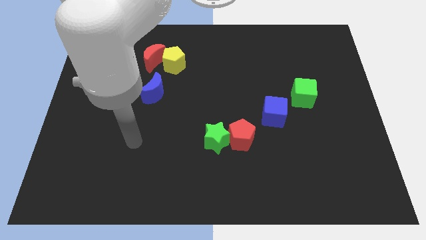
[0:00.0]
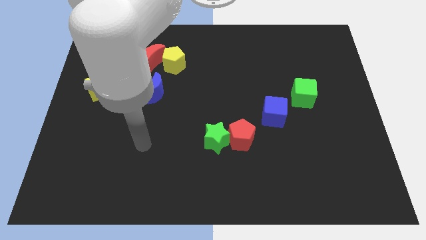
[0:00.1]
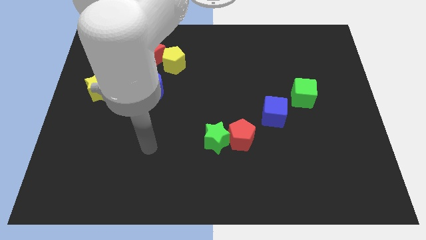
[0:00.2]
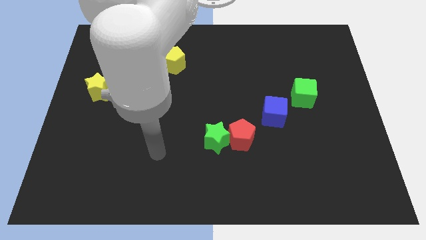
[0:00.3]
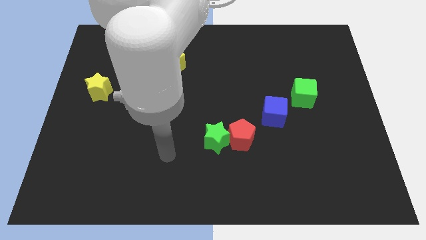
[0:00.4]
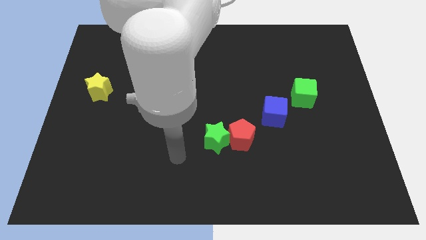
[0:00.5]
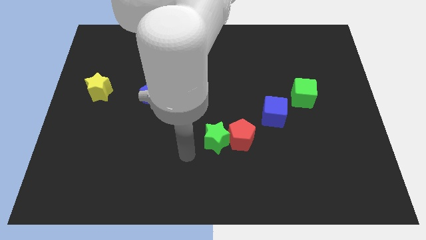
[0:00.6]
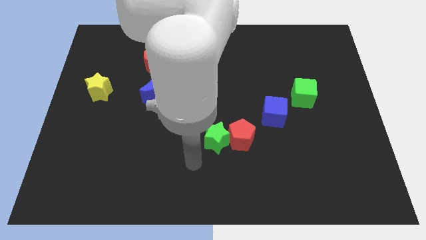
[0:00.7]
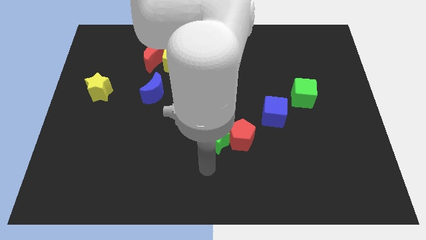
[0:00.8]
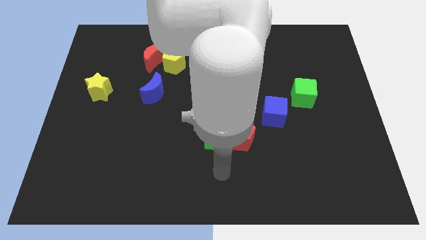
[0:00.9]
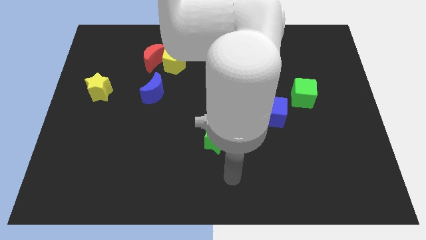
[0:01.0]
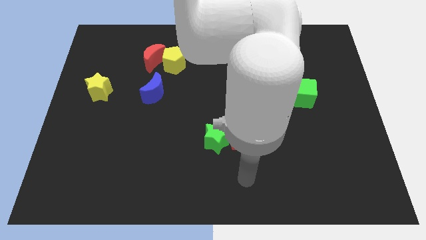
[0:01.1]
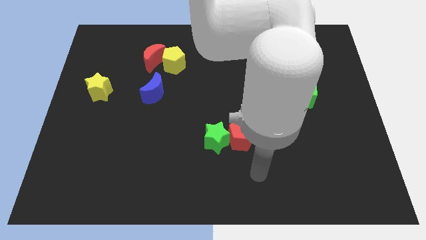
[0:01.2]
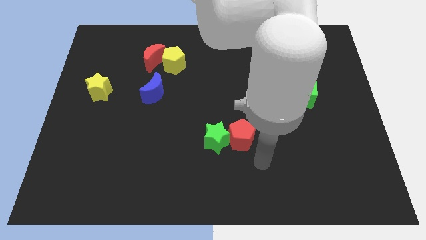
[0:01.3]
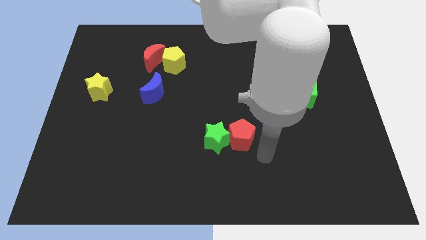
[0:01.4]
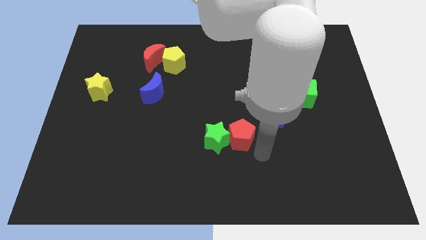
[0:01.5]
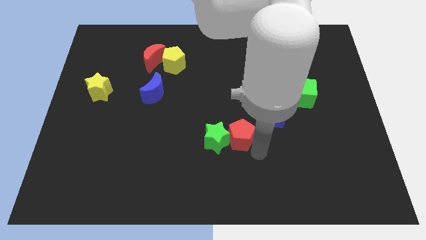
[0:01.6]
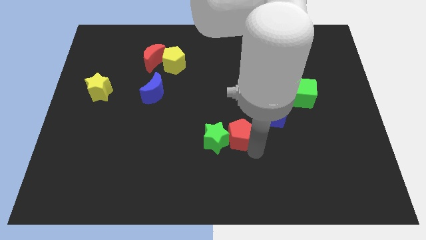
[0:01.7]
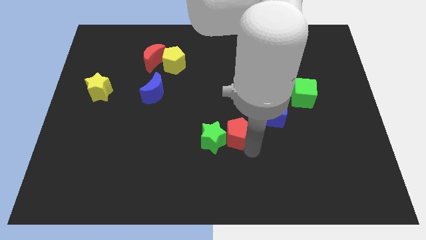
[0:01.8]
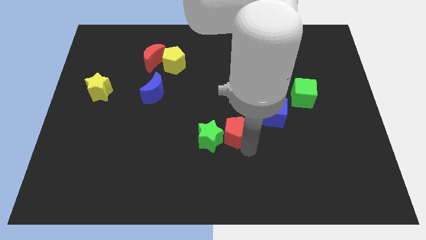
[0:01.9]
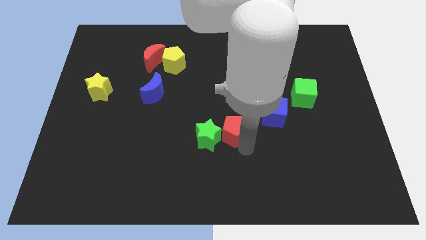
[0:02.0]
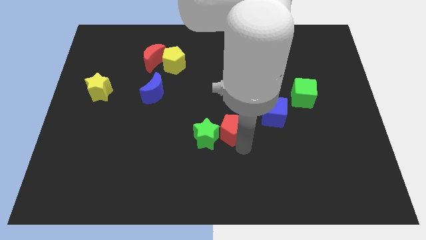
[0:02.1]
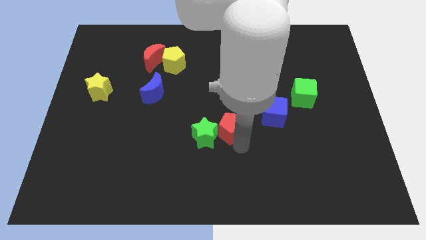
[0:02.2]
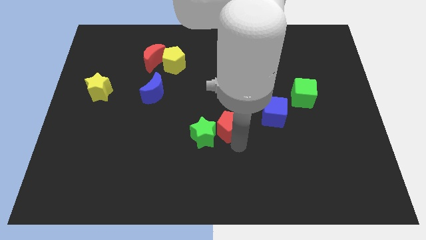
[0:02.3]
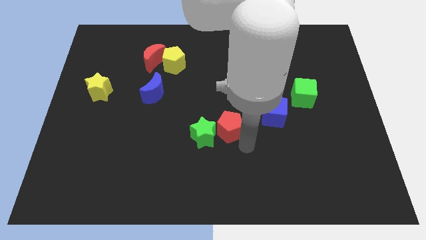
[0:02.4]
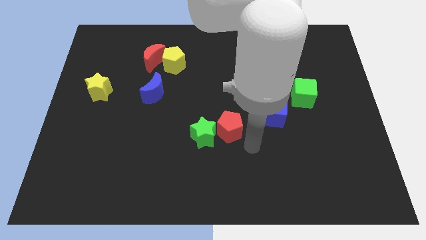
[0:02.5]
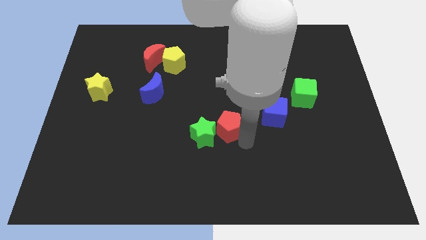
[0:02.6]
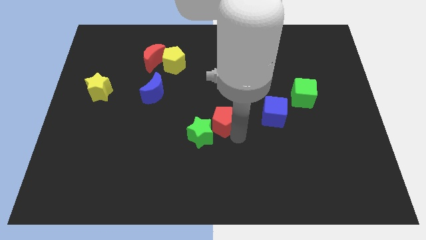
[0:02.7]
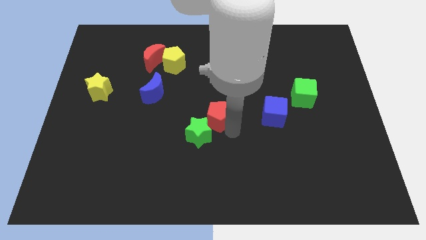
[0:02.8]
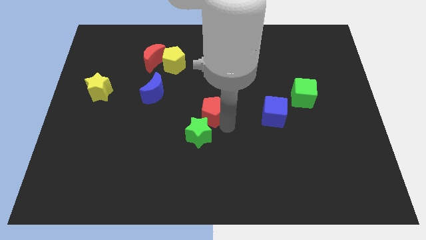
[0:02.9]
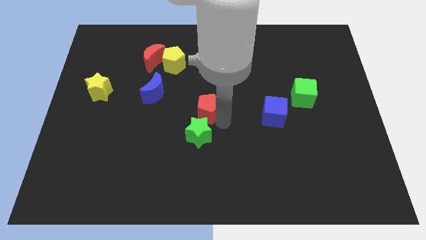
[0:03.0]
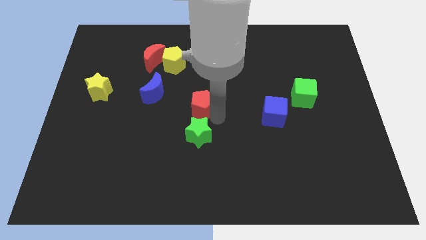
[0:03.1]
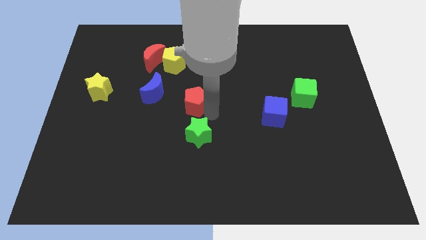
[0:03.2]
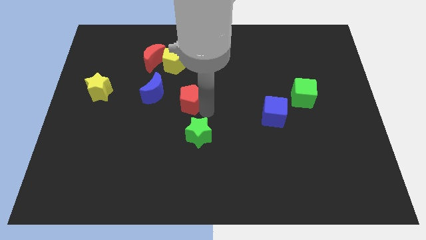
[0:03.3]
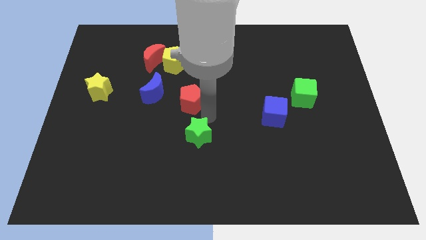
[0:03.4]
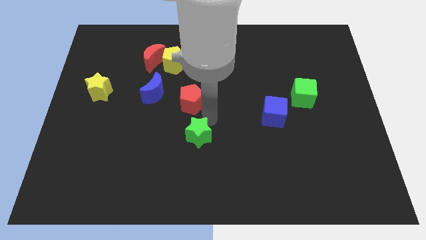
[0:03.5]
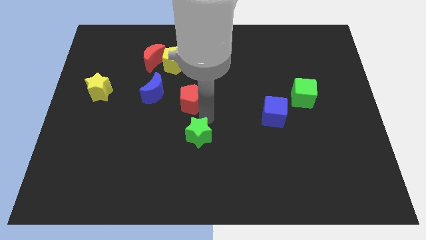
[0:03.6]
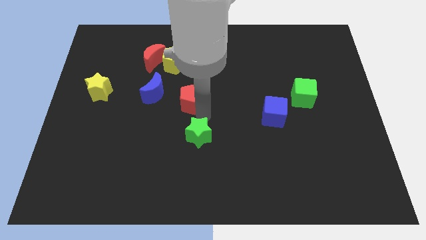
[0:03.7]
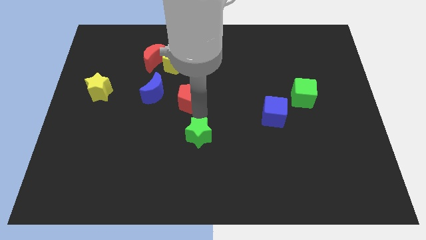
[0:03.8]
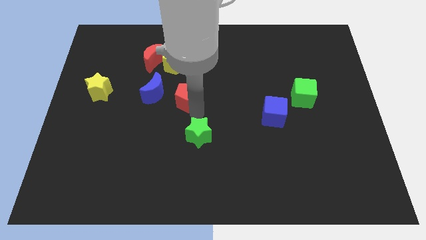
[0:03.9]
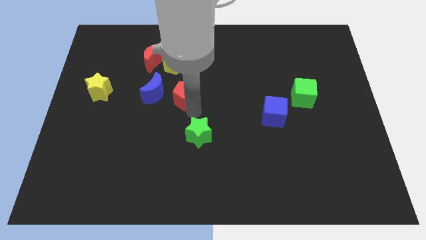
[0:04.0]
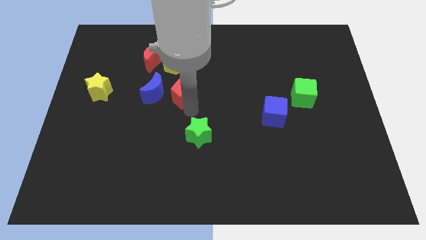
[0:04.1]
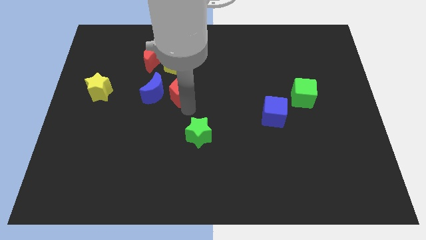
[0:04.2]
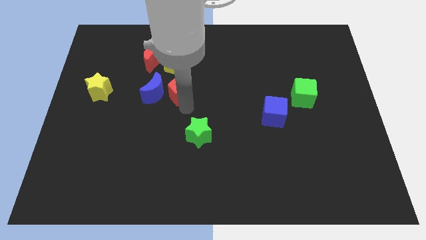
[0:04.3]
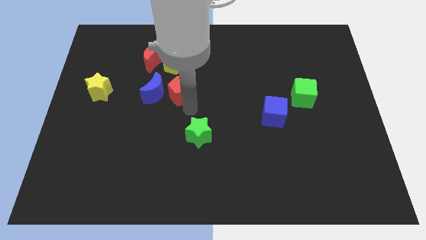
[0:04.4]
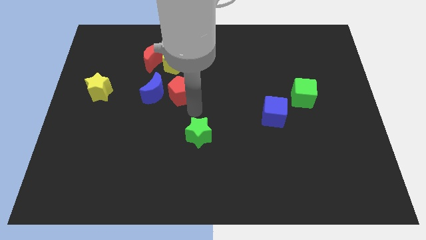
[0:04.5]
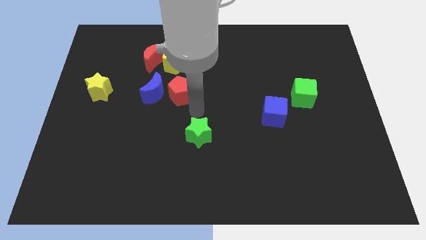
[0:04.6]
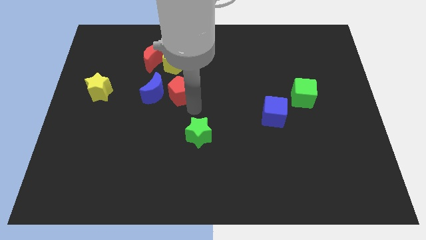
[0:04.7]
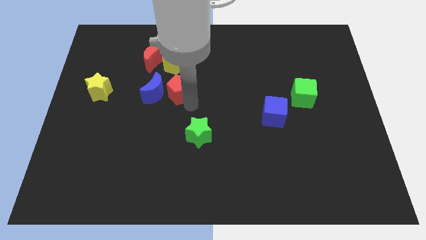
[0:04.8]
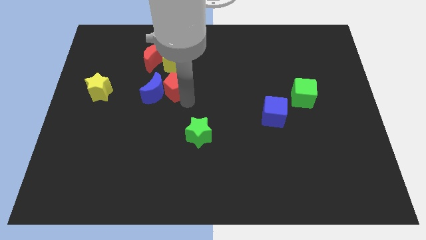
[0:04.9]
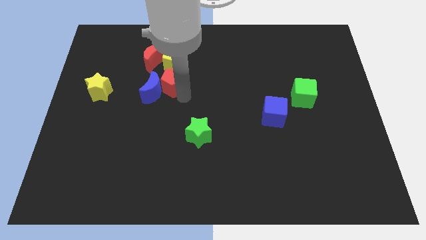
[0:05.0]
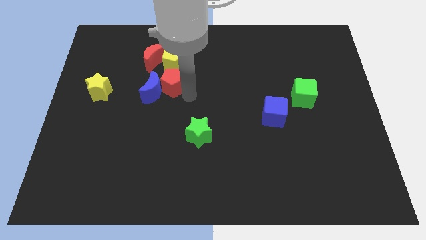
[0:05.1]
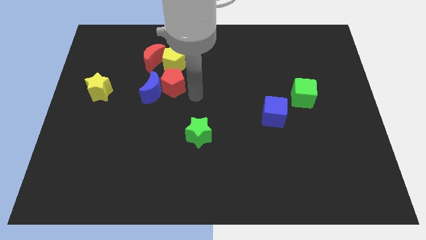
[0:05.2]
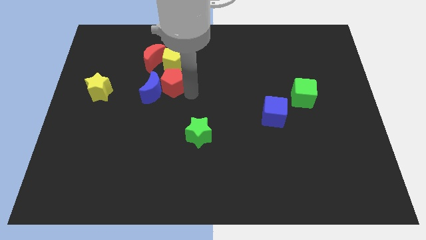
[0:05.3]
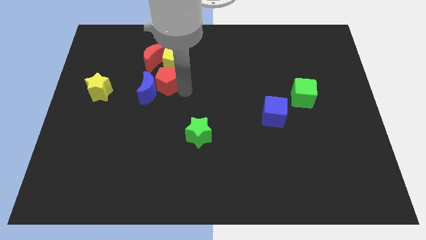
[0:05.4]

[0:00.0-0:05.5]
push the red pentagon to the bottom left of the yellow pentagon

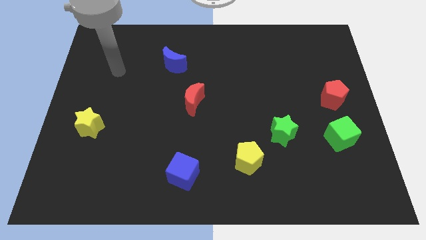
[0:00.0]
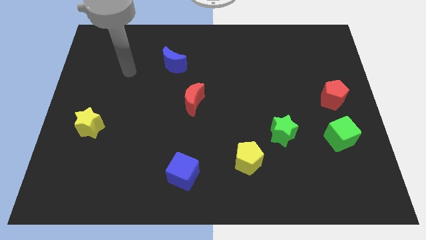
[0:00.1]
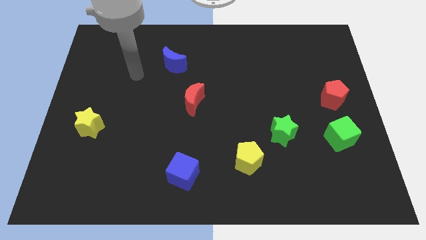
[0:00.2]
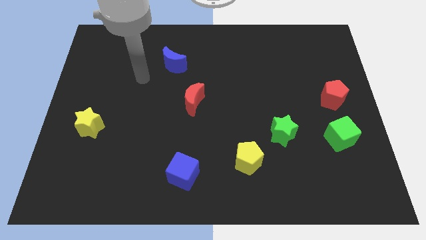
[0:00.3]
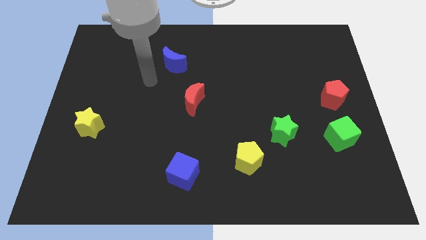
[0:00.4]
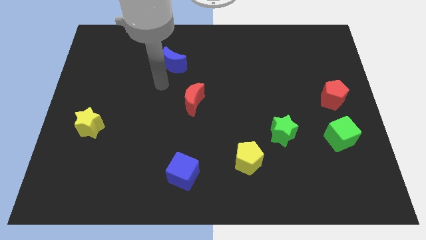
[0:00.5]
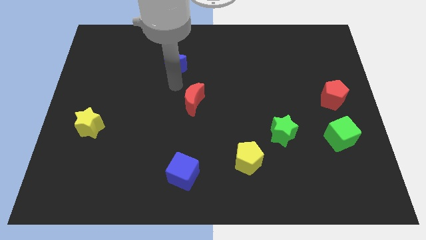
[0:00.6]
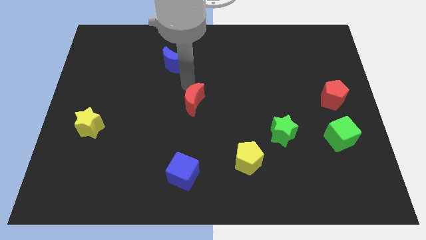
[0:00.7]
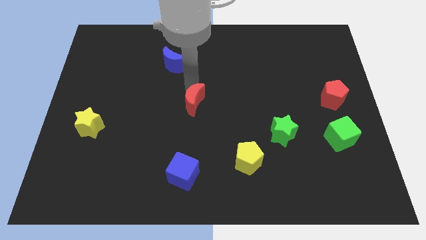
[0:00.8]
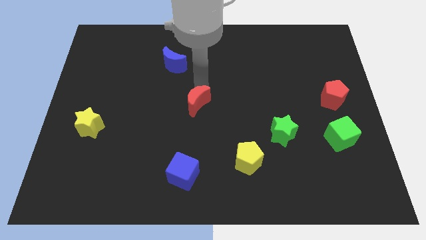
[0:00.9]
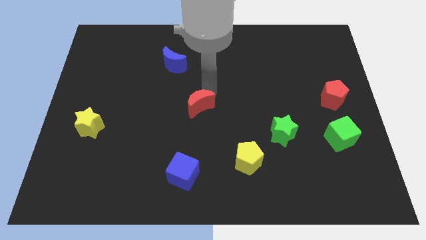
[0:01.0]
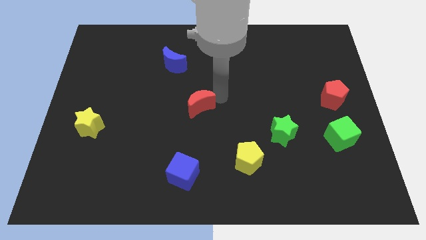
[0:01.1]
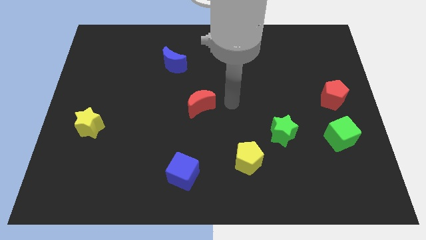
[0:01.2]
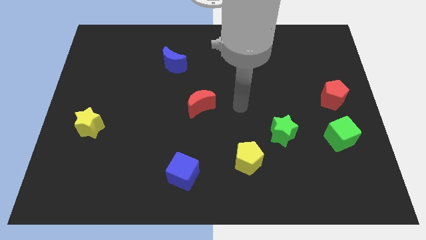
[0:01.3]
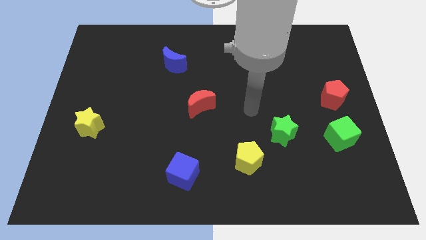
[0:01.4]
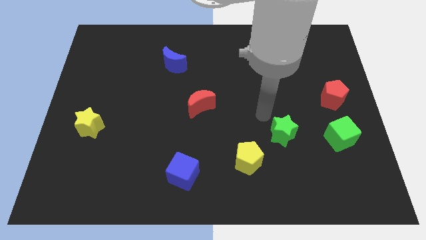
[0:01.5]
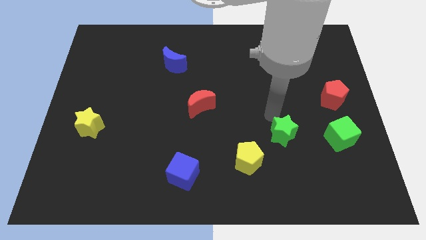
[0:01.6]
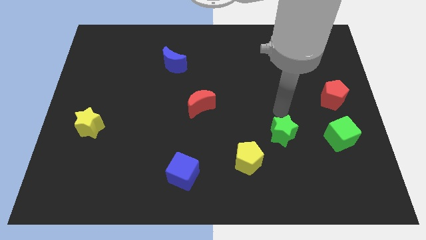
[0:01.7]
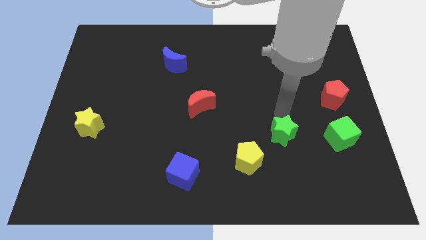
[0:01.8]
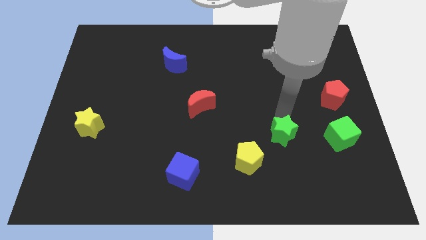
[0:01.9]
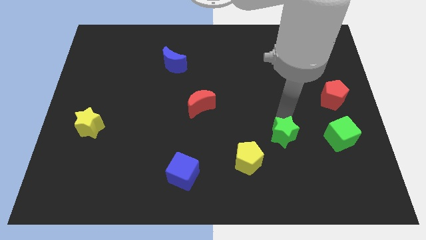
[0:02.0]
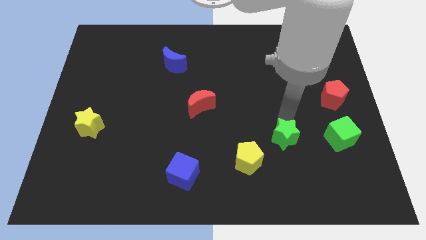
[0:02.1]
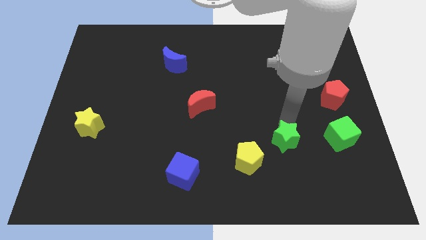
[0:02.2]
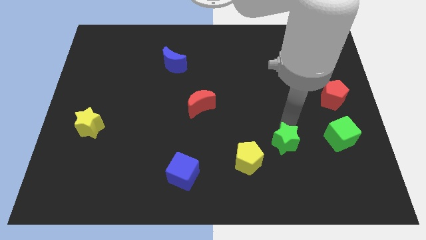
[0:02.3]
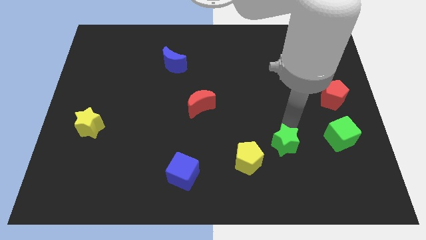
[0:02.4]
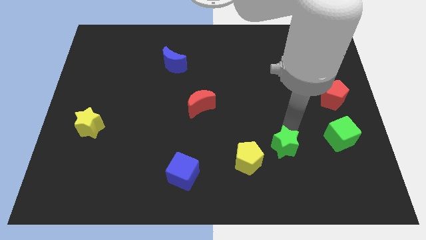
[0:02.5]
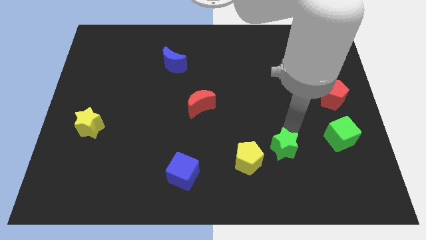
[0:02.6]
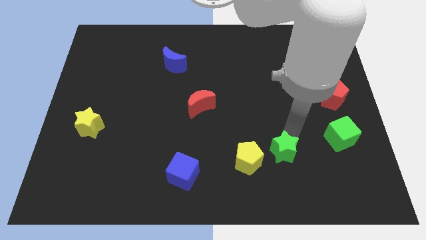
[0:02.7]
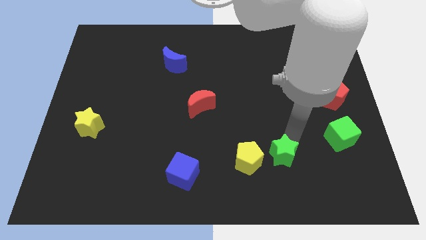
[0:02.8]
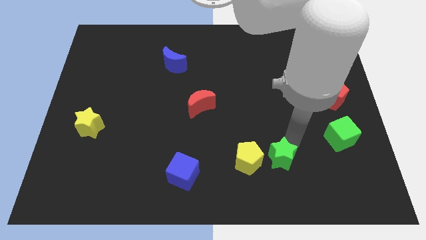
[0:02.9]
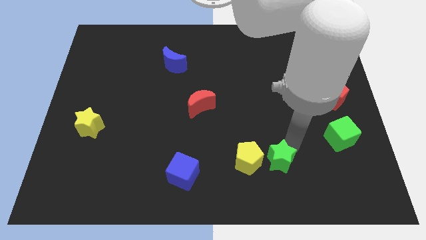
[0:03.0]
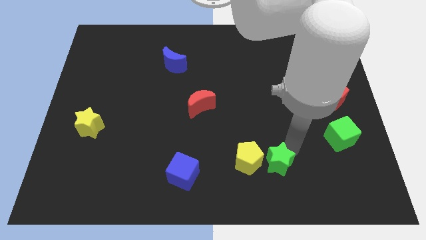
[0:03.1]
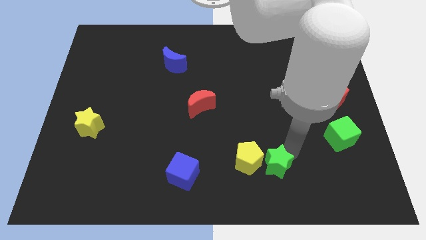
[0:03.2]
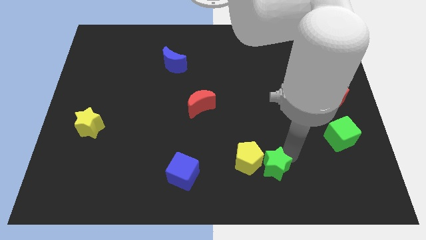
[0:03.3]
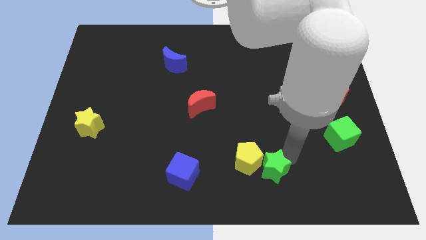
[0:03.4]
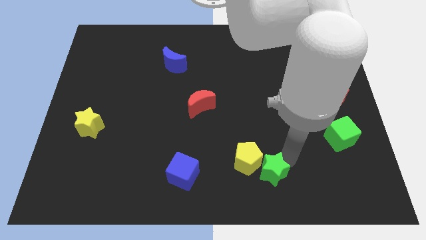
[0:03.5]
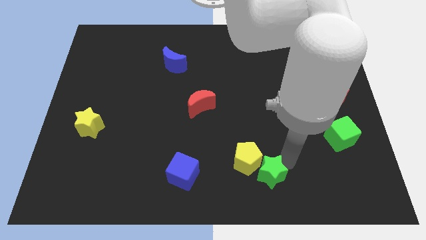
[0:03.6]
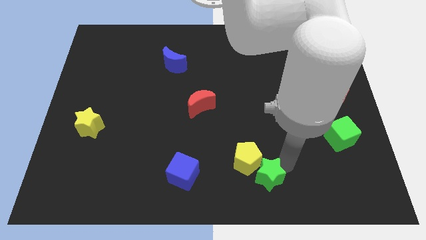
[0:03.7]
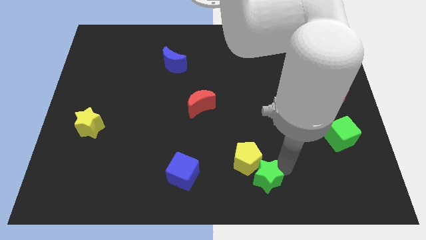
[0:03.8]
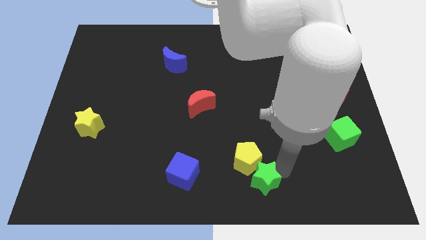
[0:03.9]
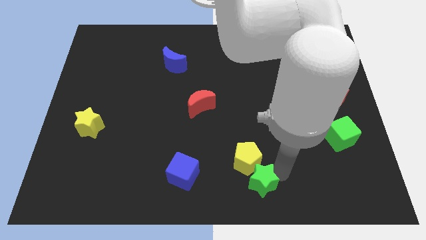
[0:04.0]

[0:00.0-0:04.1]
push the green star to the right side of the blue cube
